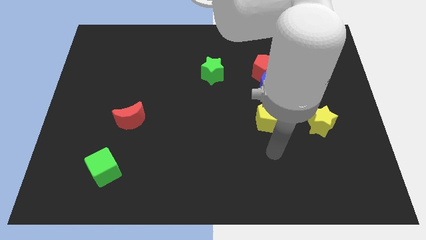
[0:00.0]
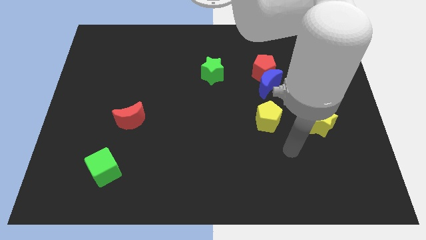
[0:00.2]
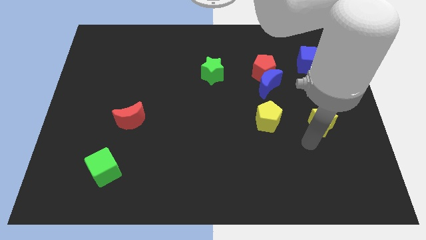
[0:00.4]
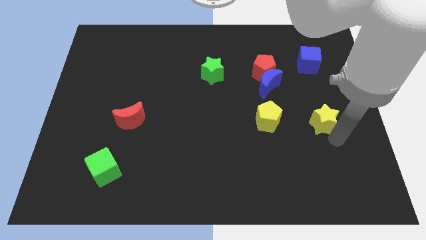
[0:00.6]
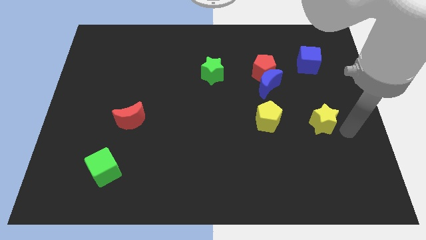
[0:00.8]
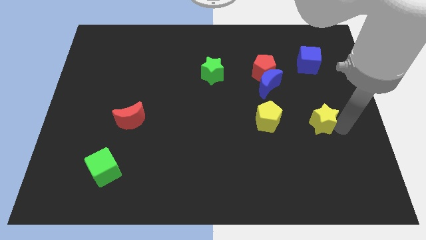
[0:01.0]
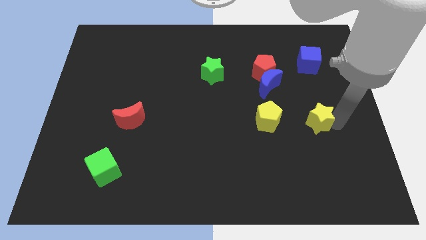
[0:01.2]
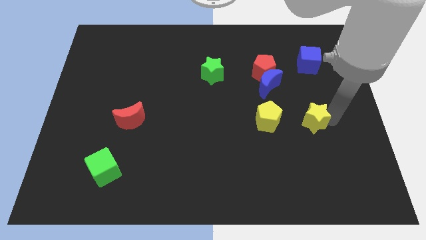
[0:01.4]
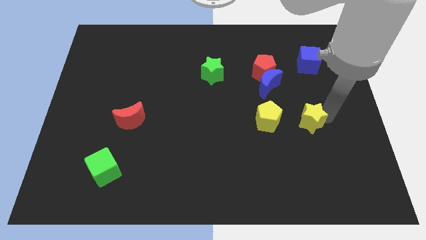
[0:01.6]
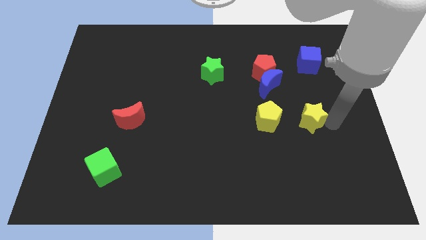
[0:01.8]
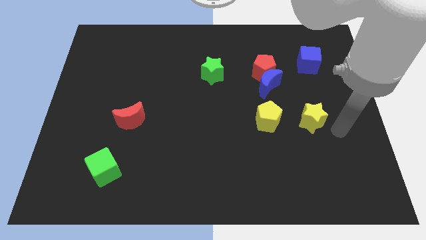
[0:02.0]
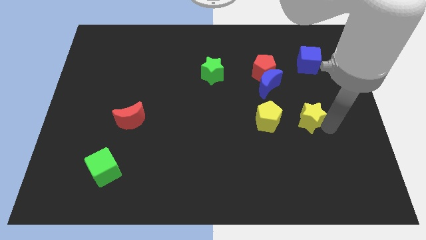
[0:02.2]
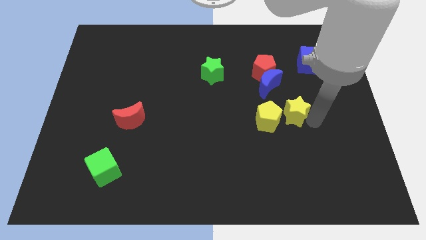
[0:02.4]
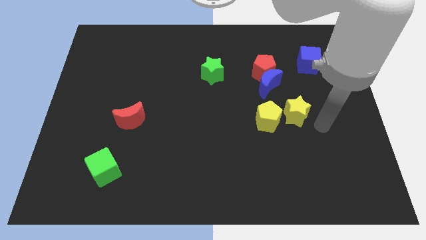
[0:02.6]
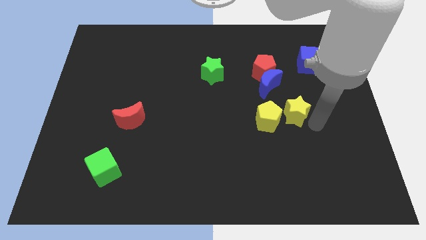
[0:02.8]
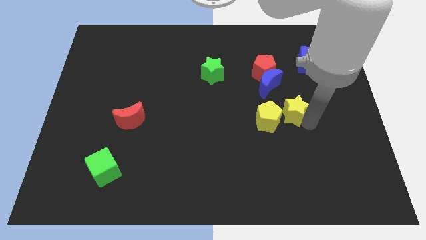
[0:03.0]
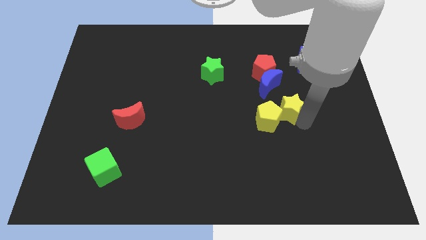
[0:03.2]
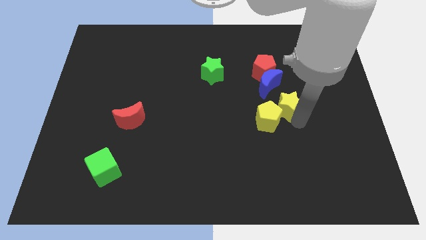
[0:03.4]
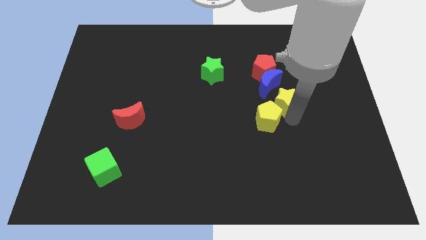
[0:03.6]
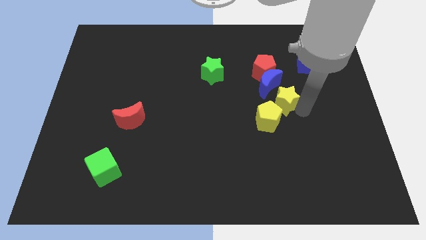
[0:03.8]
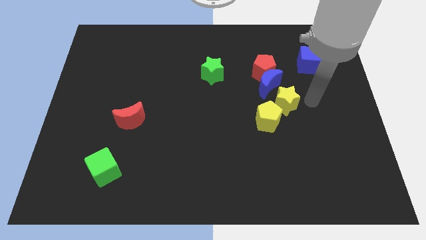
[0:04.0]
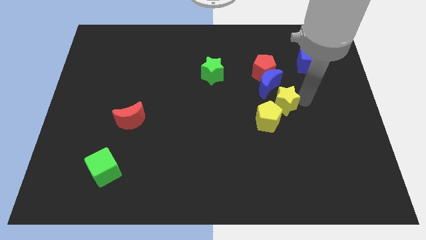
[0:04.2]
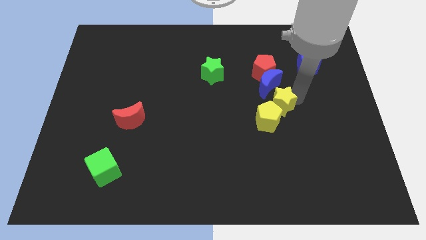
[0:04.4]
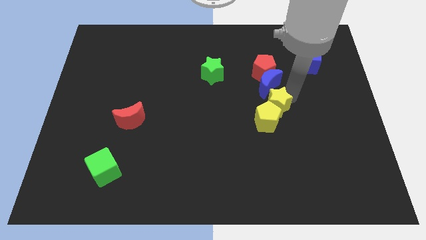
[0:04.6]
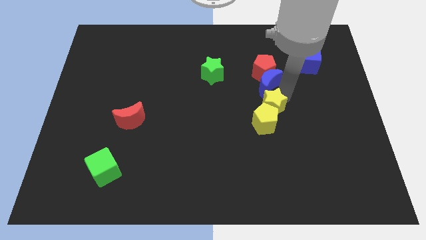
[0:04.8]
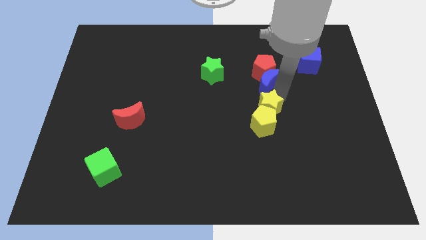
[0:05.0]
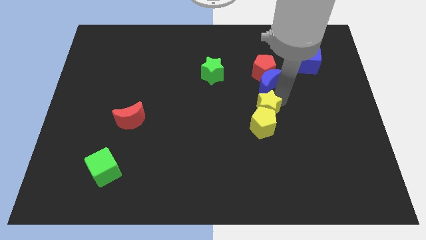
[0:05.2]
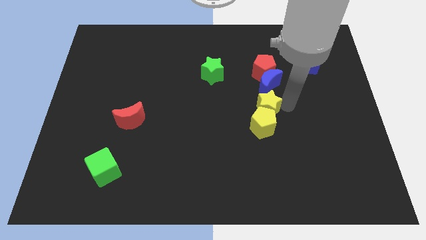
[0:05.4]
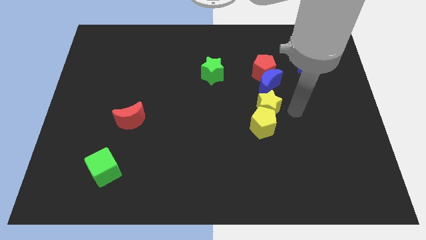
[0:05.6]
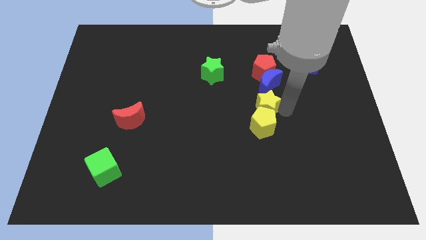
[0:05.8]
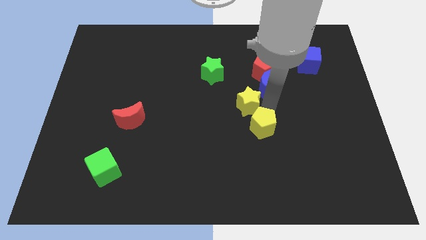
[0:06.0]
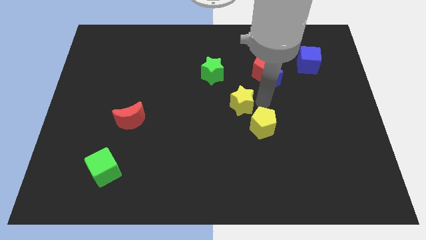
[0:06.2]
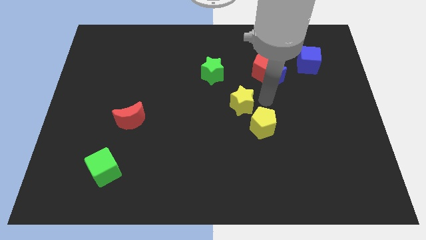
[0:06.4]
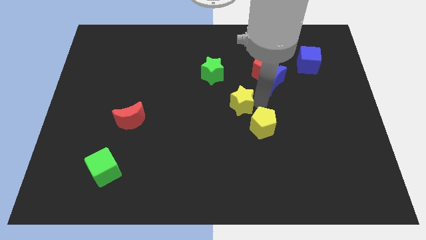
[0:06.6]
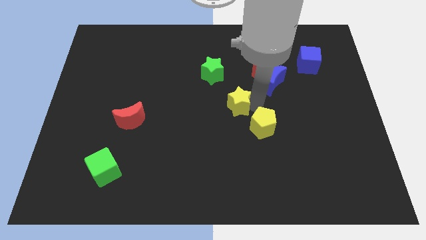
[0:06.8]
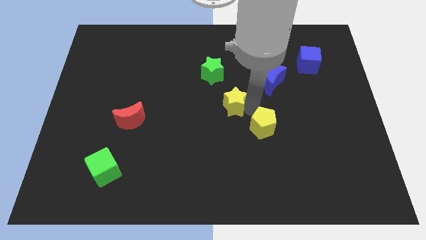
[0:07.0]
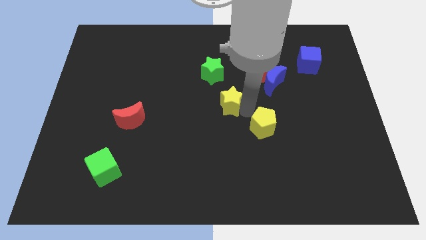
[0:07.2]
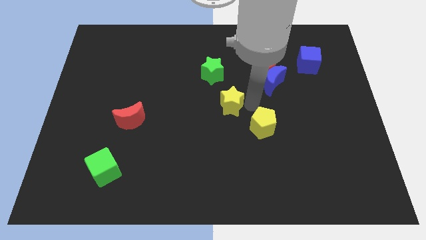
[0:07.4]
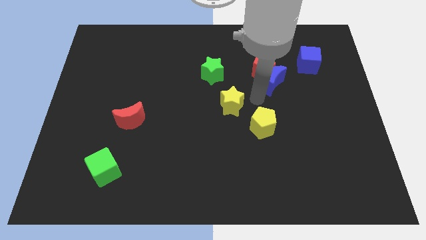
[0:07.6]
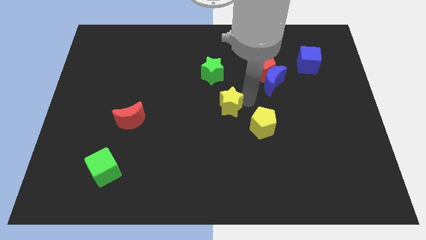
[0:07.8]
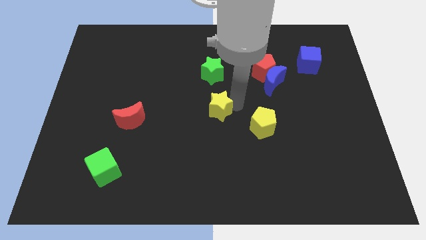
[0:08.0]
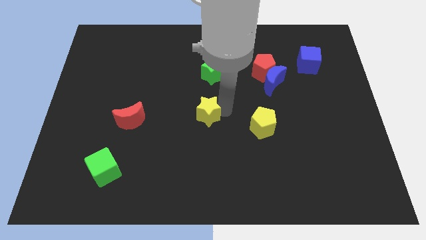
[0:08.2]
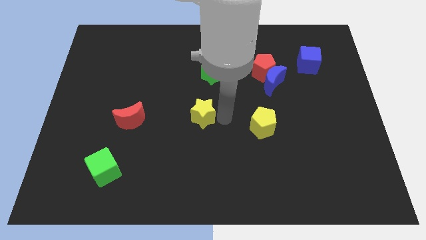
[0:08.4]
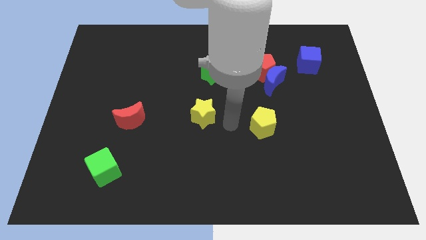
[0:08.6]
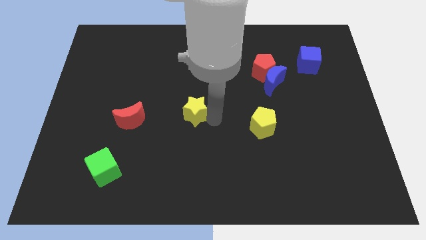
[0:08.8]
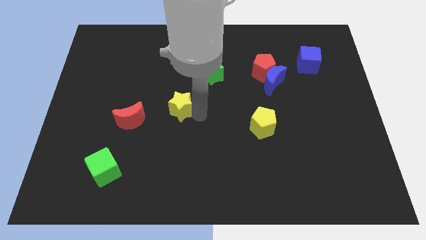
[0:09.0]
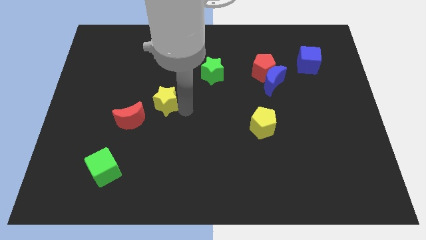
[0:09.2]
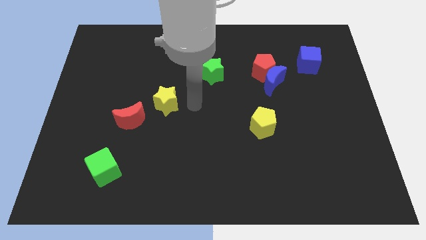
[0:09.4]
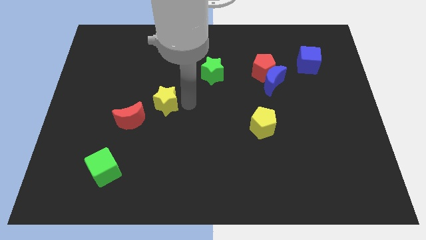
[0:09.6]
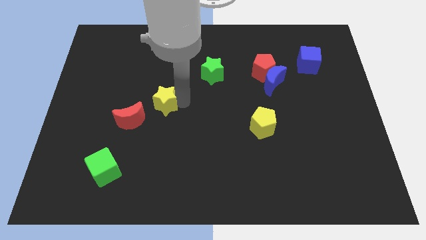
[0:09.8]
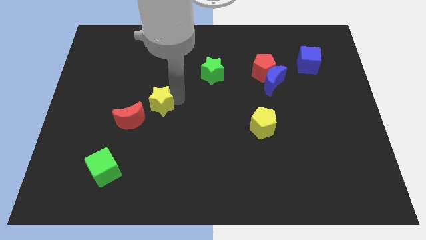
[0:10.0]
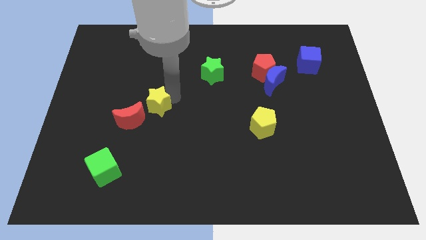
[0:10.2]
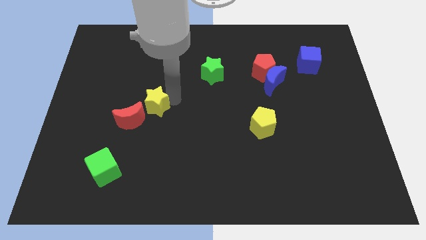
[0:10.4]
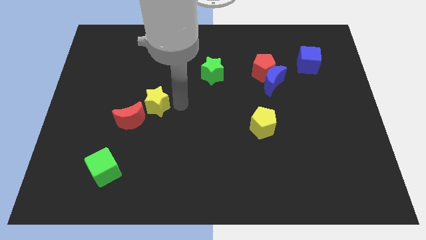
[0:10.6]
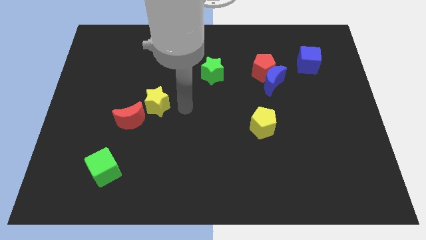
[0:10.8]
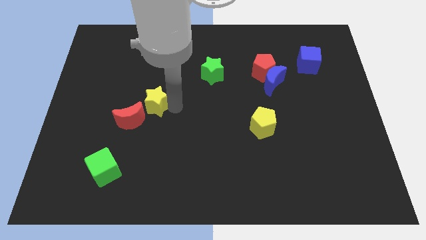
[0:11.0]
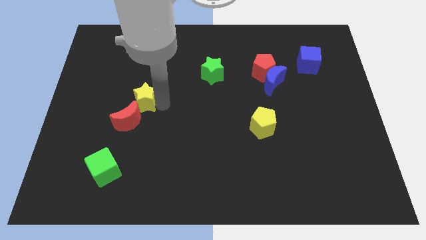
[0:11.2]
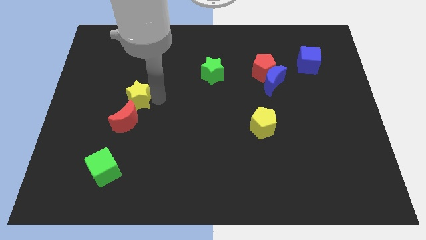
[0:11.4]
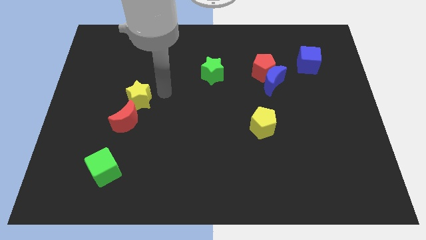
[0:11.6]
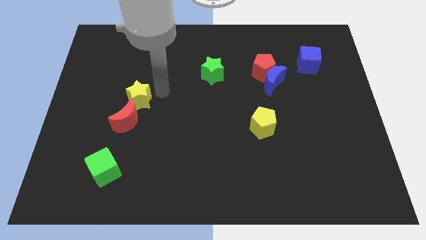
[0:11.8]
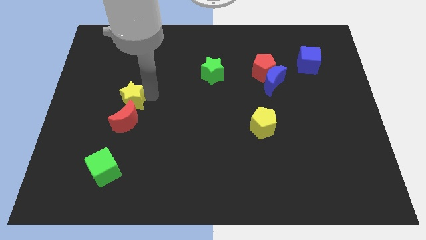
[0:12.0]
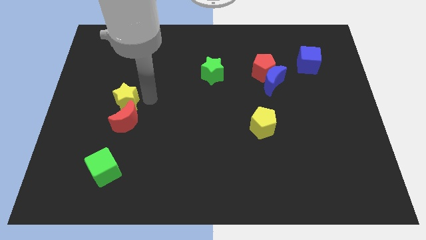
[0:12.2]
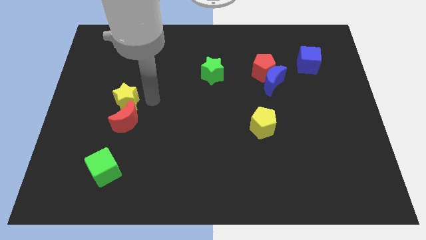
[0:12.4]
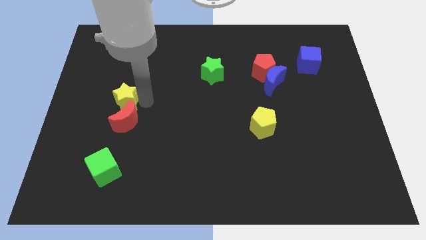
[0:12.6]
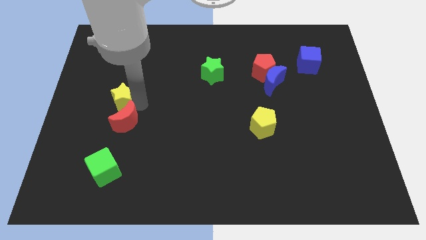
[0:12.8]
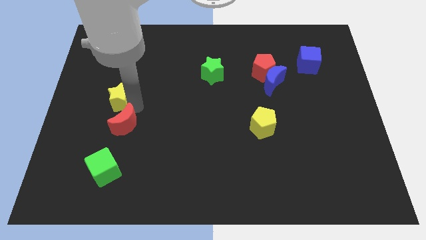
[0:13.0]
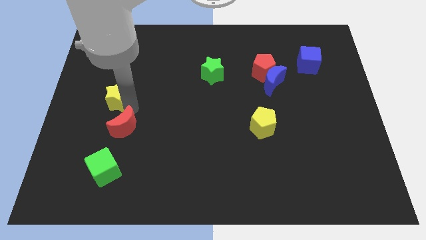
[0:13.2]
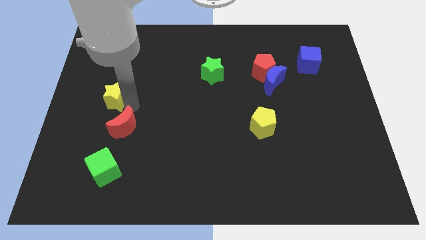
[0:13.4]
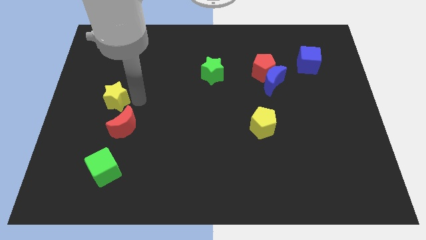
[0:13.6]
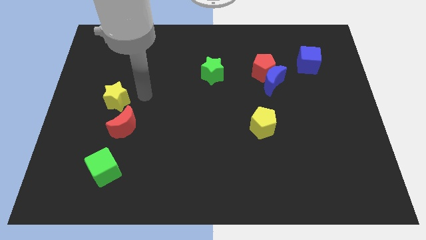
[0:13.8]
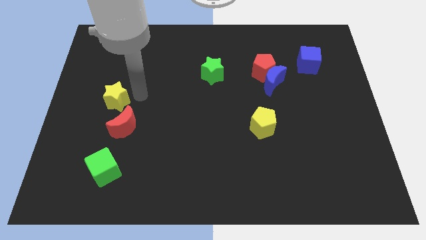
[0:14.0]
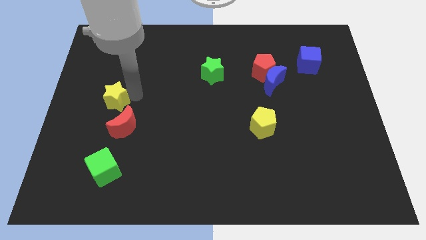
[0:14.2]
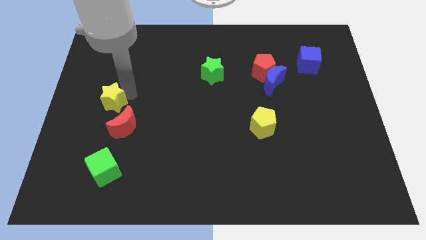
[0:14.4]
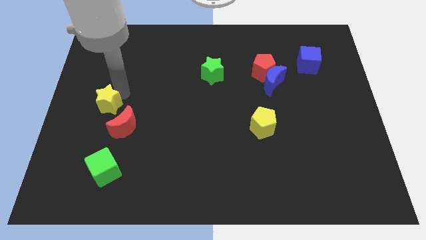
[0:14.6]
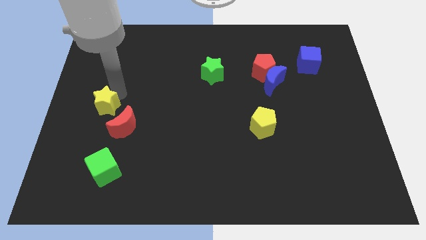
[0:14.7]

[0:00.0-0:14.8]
slide the yellow star to the center left

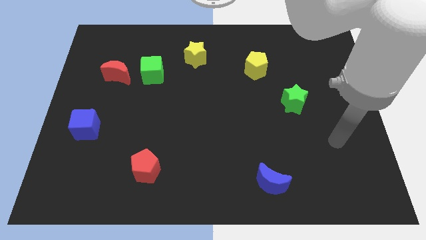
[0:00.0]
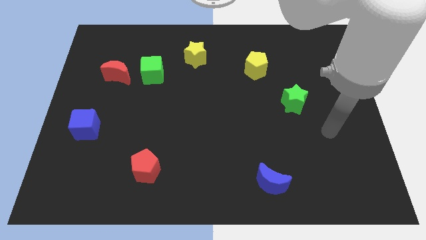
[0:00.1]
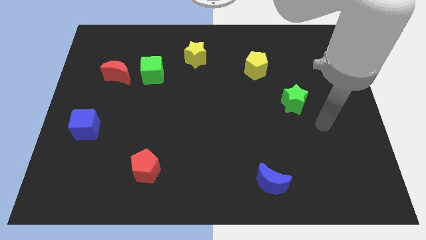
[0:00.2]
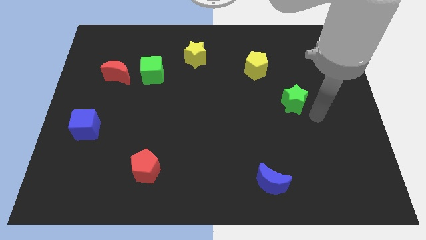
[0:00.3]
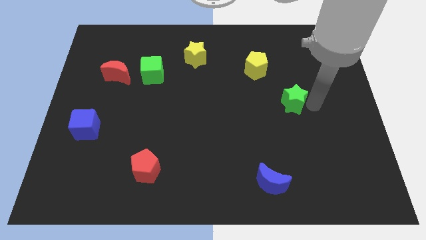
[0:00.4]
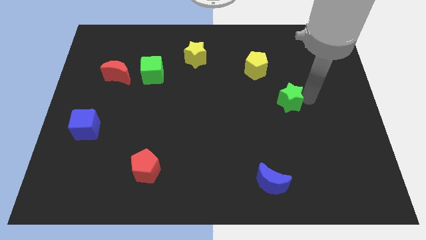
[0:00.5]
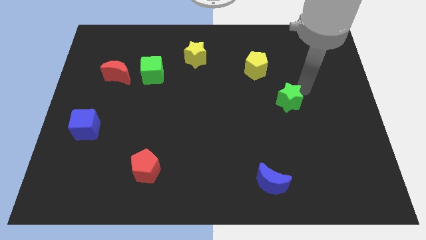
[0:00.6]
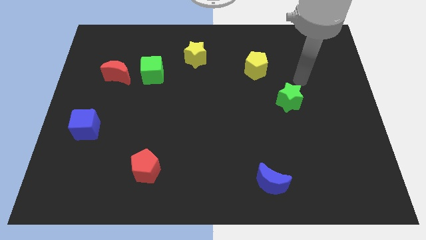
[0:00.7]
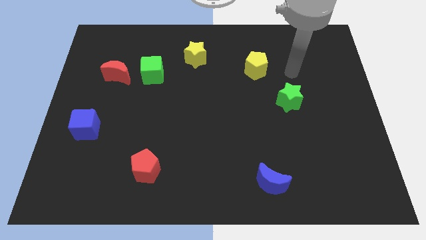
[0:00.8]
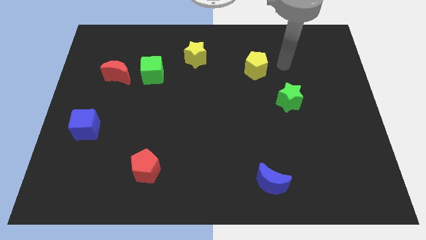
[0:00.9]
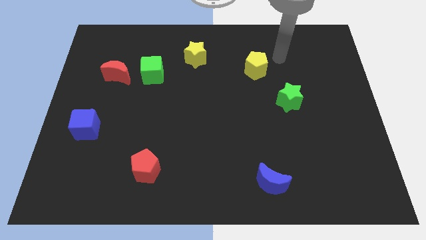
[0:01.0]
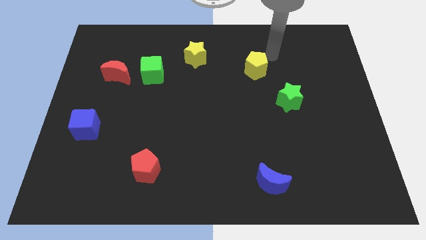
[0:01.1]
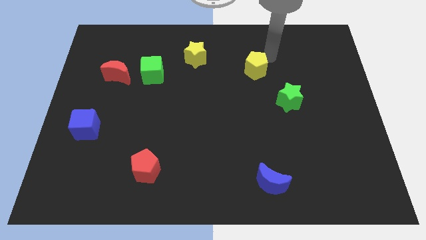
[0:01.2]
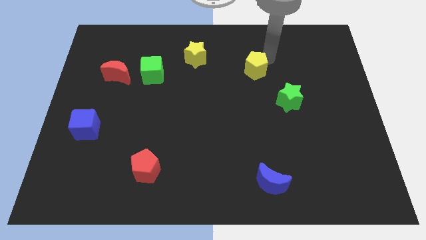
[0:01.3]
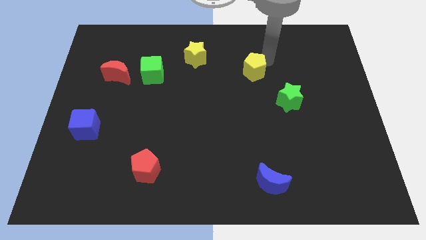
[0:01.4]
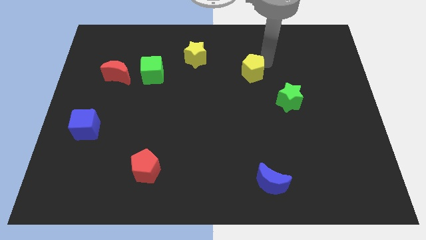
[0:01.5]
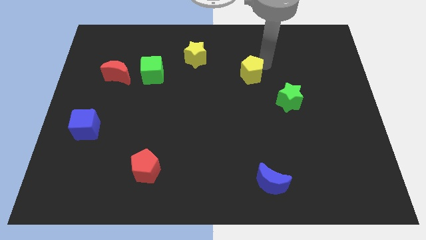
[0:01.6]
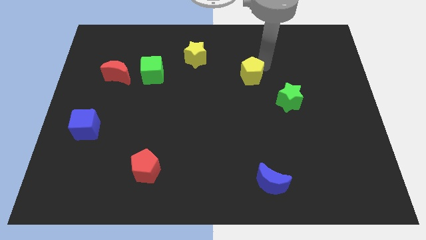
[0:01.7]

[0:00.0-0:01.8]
slide the yellow pentagon to the center of the board
